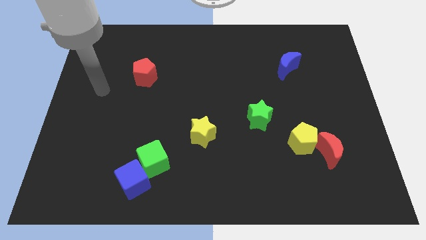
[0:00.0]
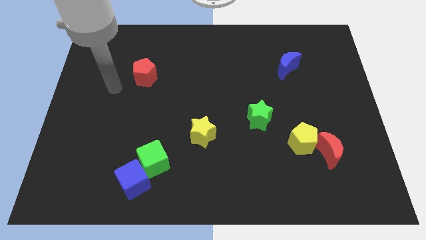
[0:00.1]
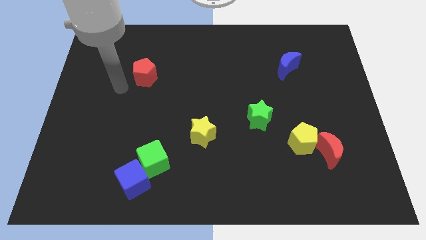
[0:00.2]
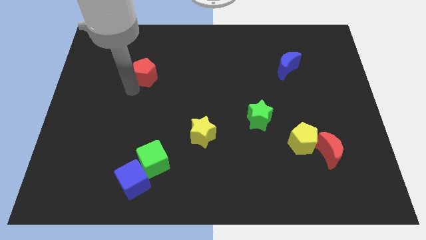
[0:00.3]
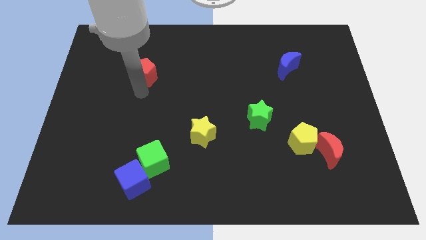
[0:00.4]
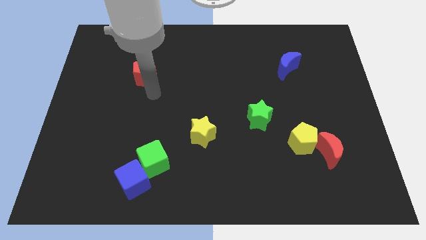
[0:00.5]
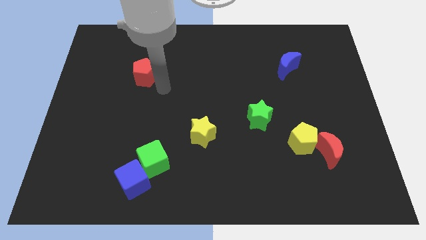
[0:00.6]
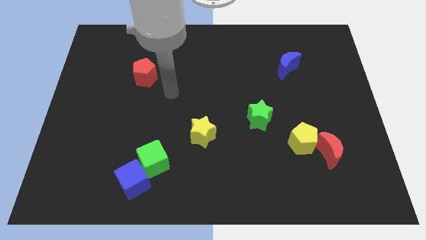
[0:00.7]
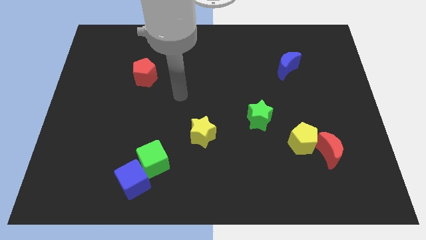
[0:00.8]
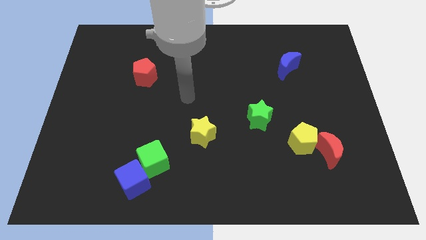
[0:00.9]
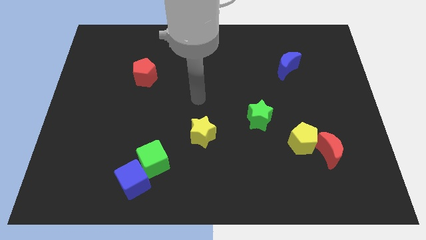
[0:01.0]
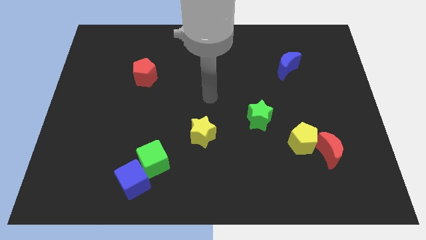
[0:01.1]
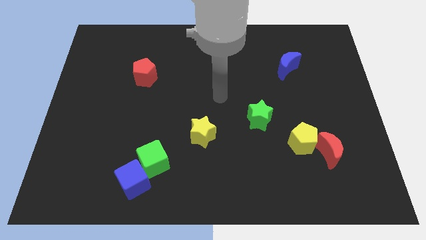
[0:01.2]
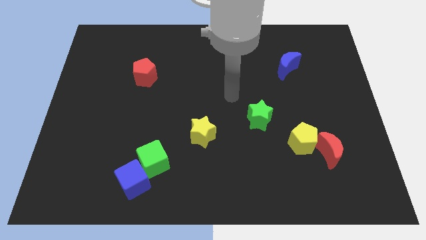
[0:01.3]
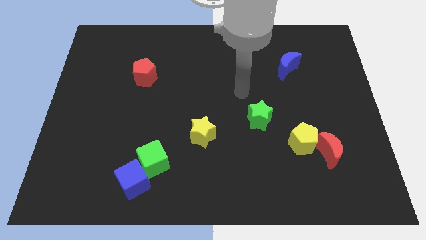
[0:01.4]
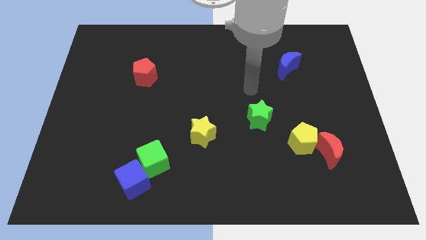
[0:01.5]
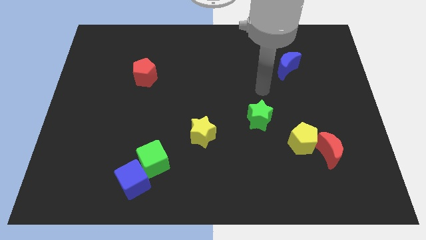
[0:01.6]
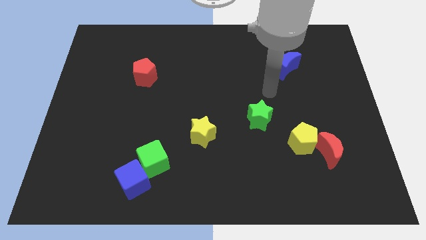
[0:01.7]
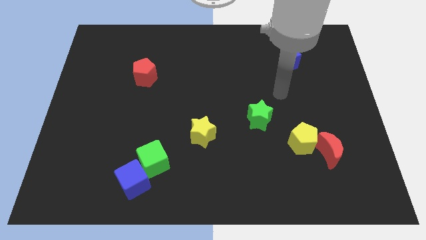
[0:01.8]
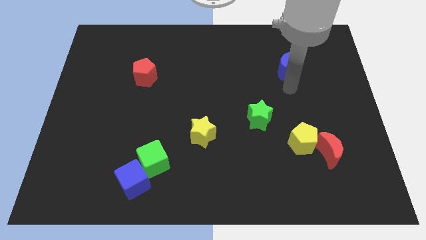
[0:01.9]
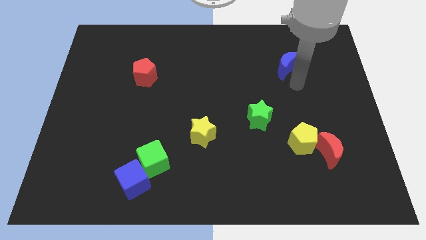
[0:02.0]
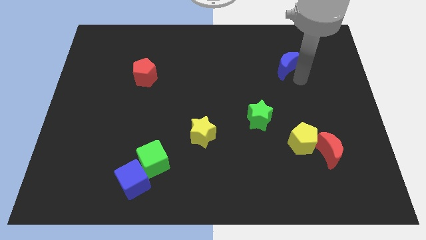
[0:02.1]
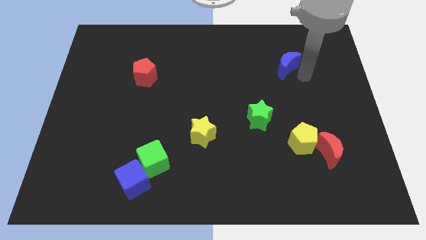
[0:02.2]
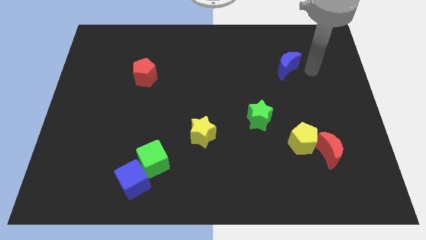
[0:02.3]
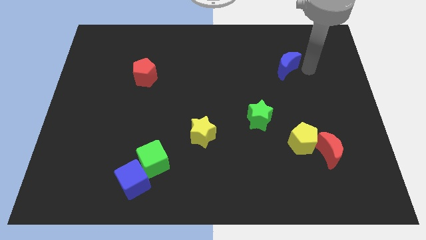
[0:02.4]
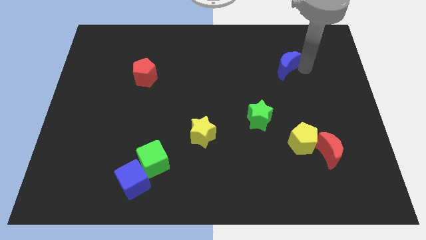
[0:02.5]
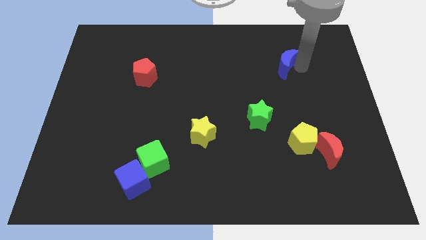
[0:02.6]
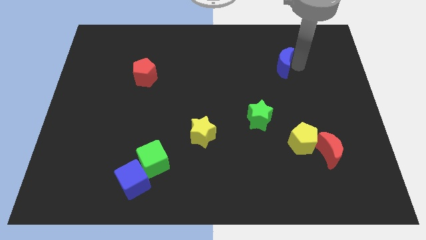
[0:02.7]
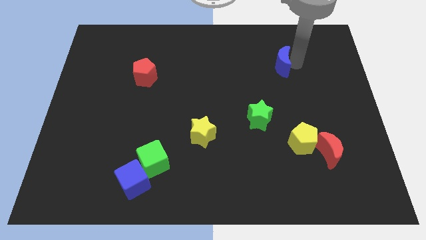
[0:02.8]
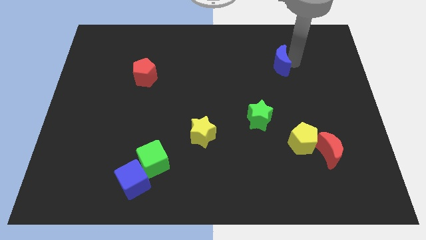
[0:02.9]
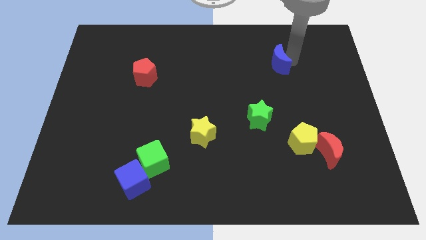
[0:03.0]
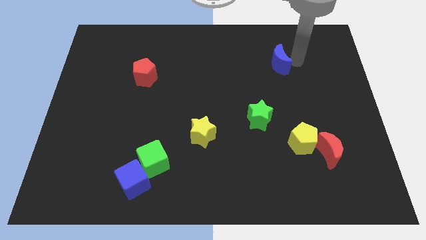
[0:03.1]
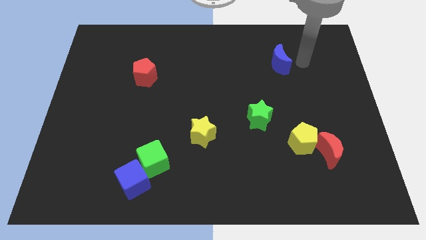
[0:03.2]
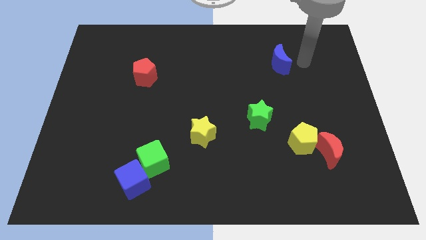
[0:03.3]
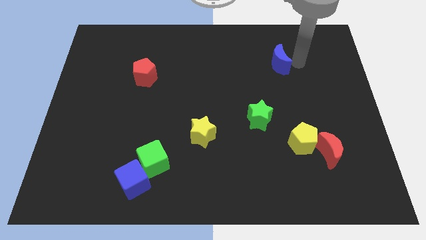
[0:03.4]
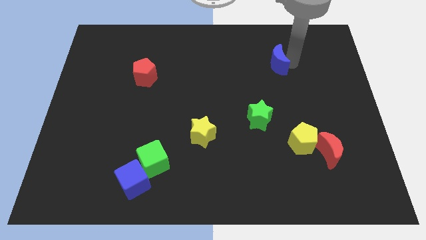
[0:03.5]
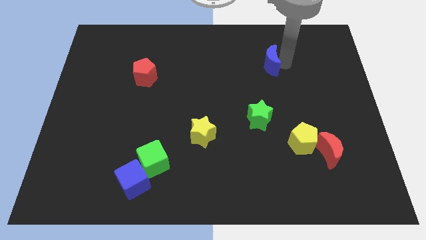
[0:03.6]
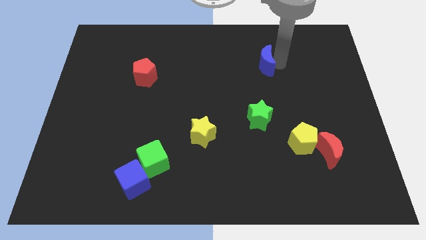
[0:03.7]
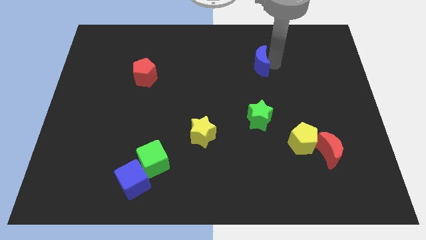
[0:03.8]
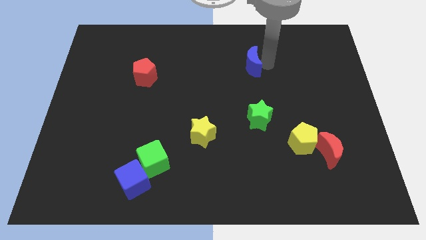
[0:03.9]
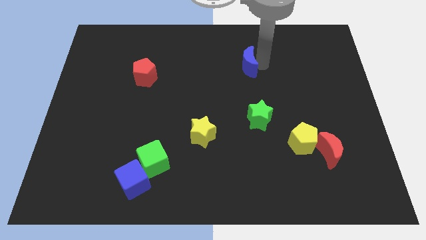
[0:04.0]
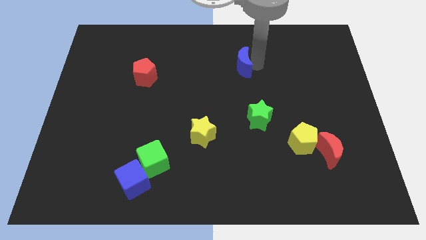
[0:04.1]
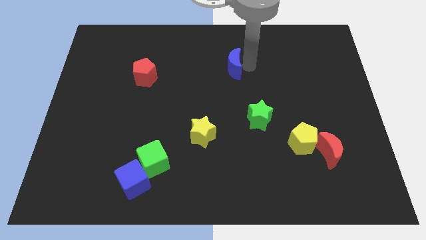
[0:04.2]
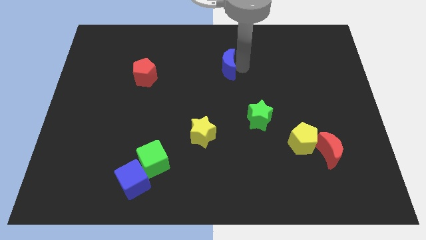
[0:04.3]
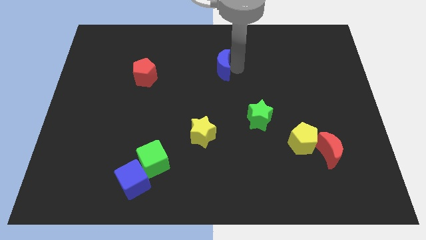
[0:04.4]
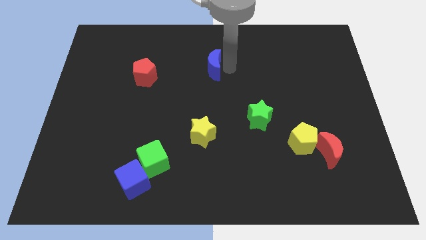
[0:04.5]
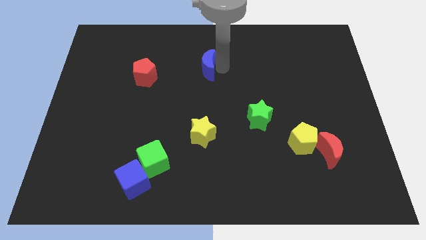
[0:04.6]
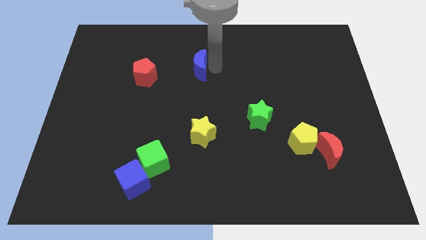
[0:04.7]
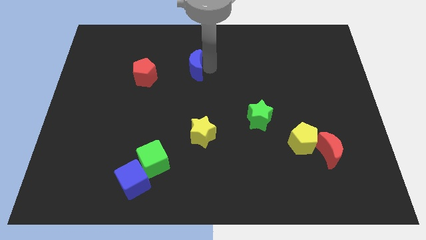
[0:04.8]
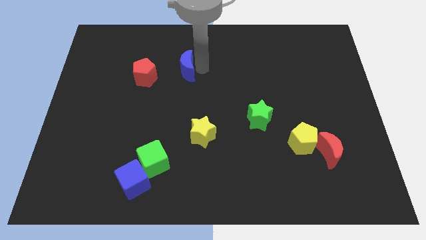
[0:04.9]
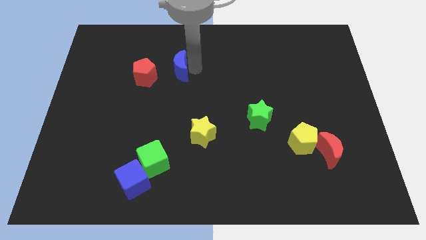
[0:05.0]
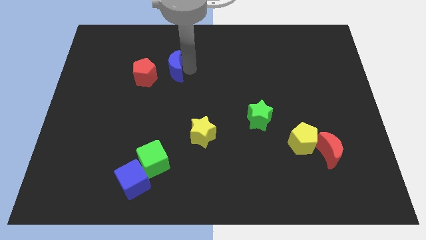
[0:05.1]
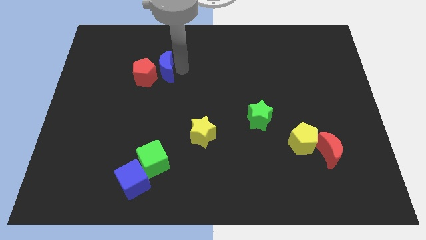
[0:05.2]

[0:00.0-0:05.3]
move the blue moon towards the red pentagon

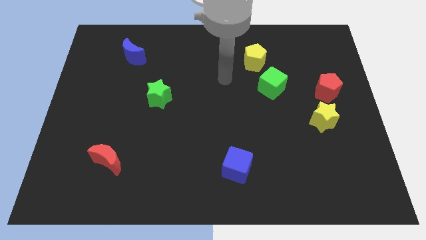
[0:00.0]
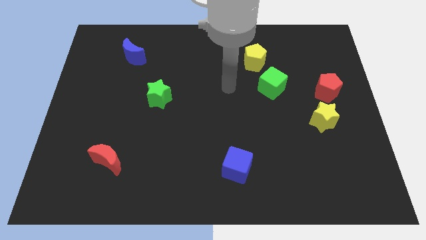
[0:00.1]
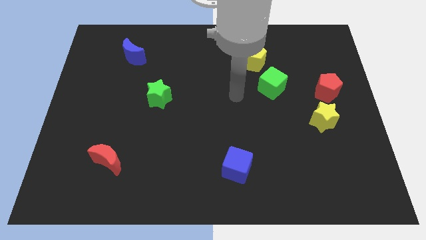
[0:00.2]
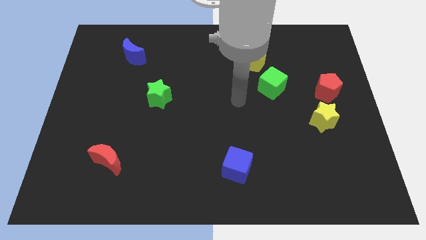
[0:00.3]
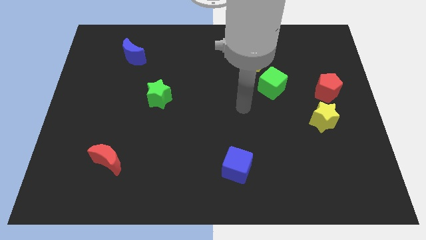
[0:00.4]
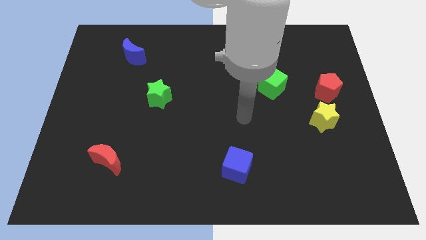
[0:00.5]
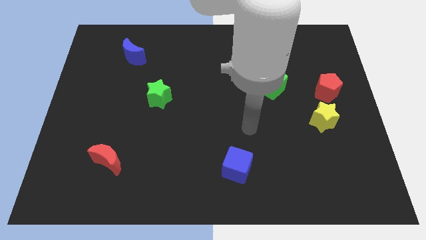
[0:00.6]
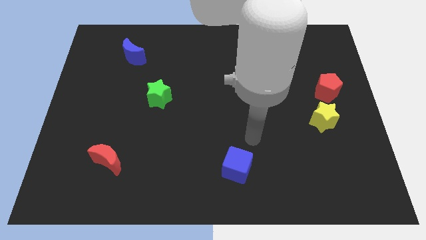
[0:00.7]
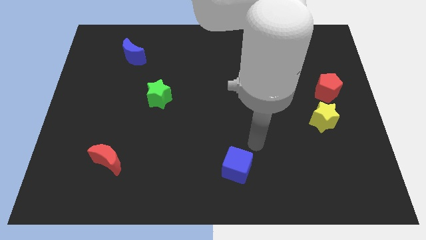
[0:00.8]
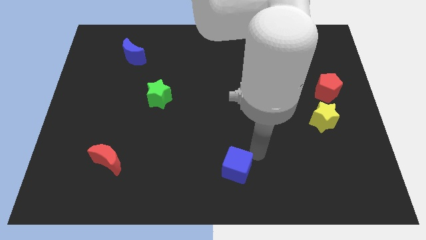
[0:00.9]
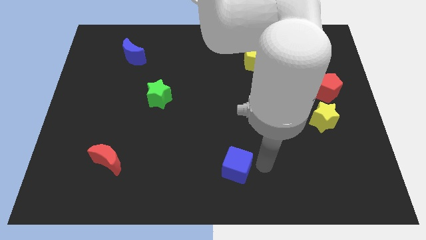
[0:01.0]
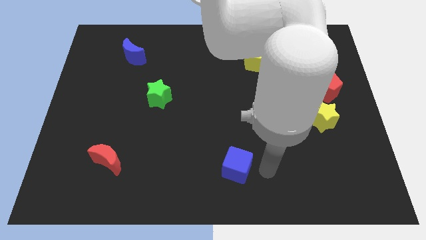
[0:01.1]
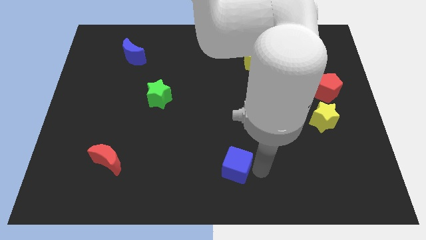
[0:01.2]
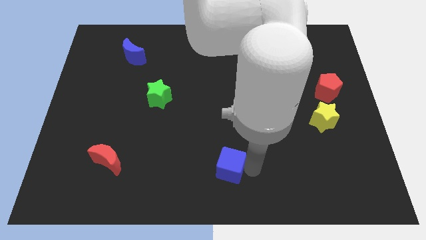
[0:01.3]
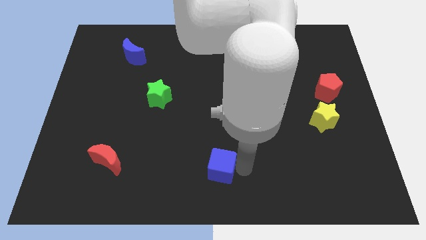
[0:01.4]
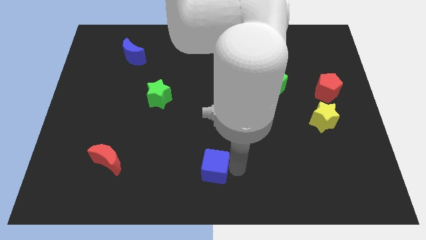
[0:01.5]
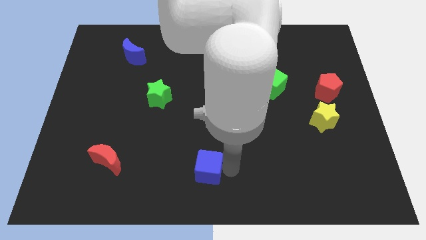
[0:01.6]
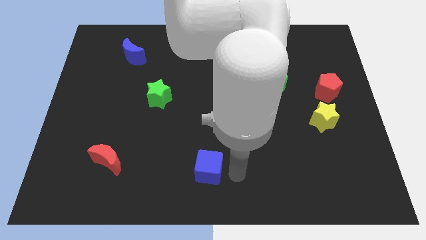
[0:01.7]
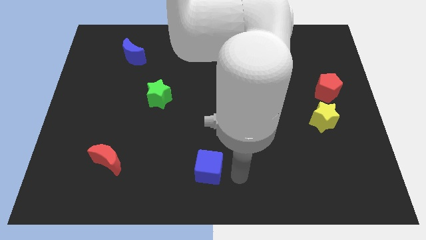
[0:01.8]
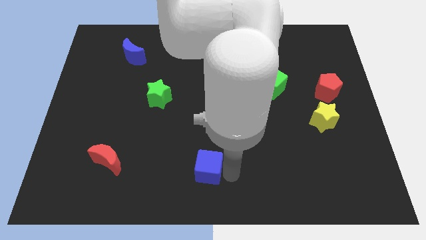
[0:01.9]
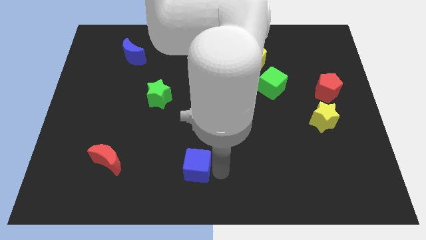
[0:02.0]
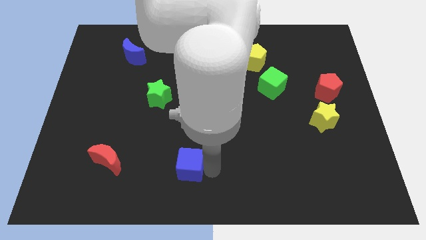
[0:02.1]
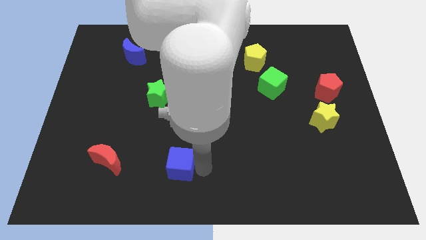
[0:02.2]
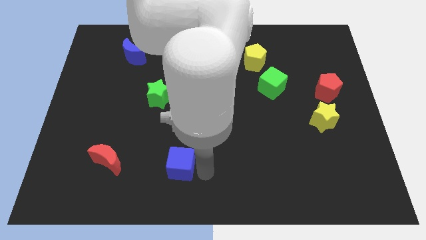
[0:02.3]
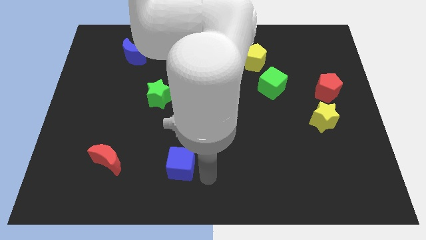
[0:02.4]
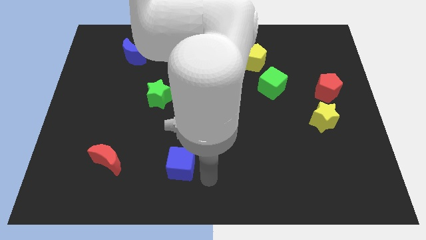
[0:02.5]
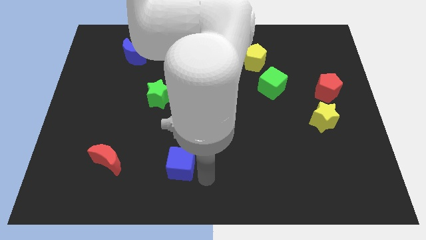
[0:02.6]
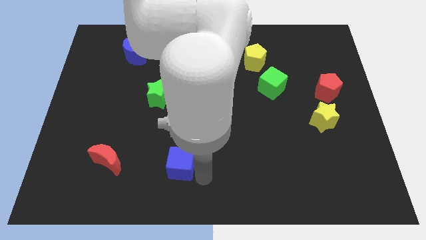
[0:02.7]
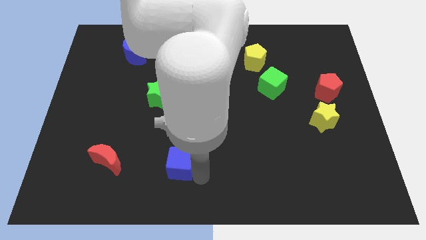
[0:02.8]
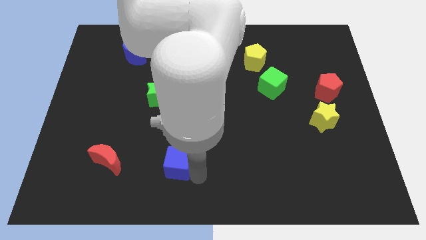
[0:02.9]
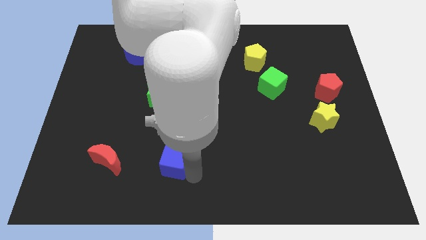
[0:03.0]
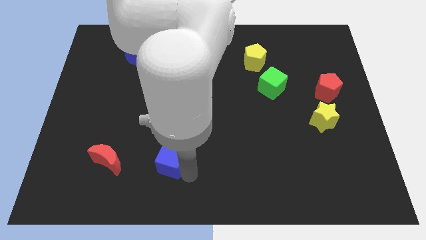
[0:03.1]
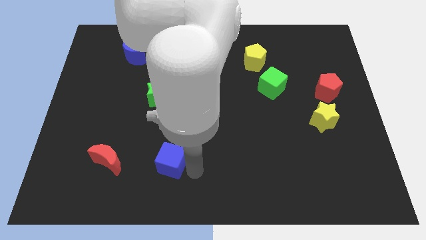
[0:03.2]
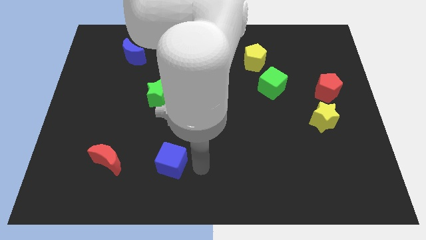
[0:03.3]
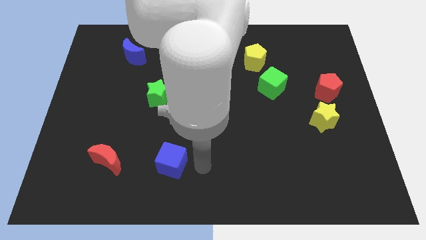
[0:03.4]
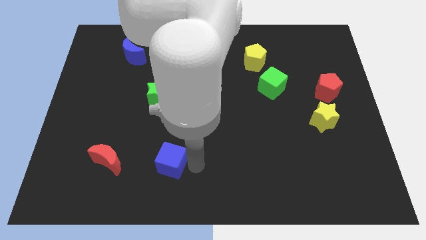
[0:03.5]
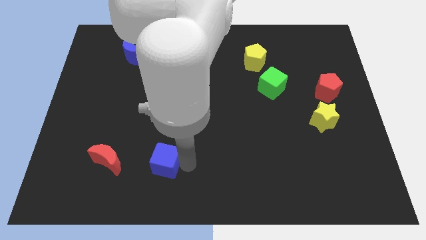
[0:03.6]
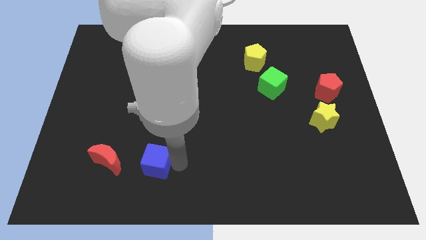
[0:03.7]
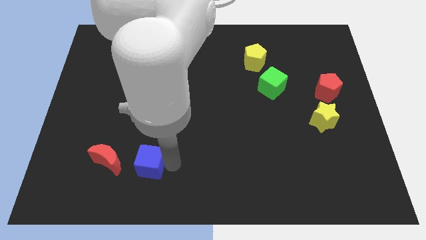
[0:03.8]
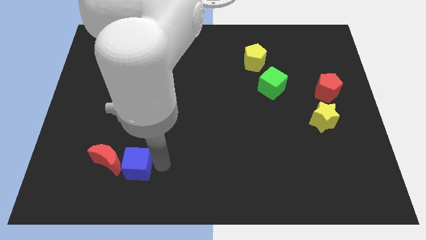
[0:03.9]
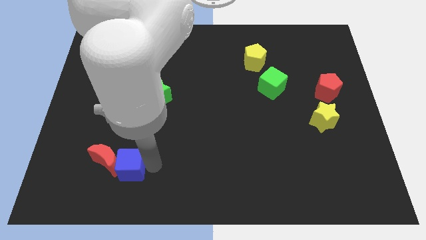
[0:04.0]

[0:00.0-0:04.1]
put the blue cube to the red moon
